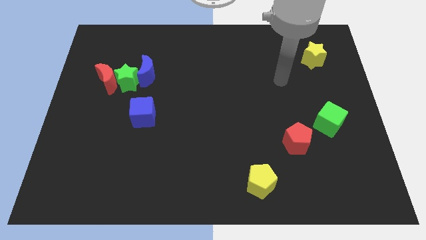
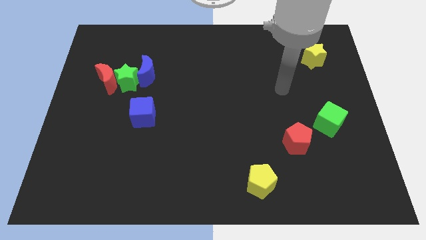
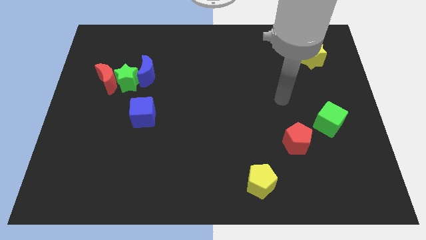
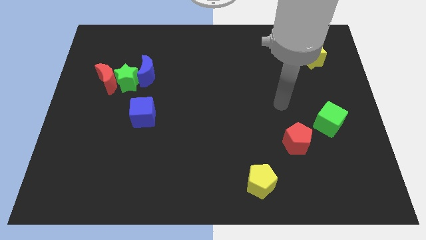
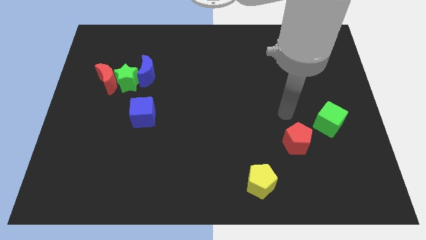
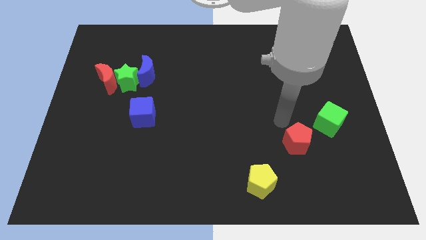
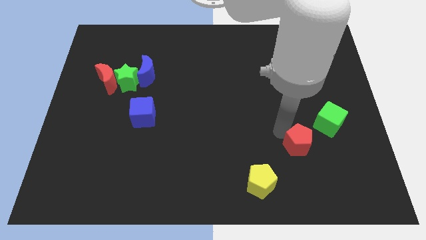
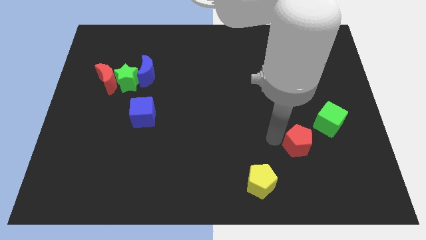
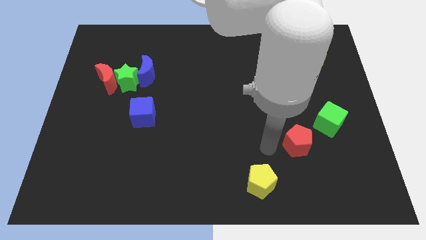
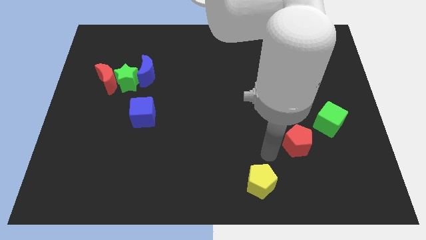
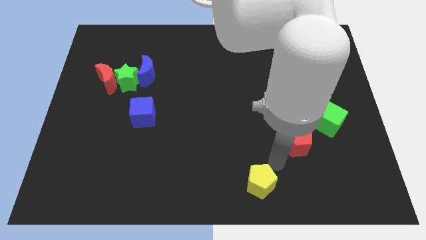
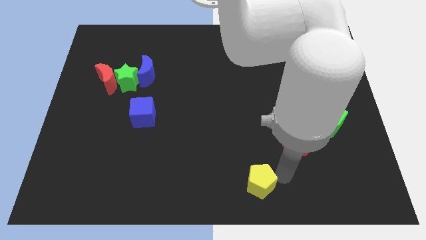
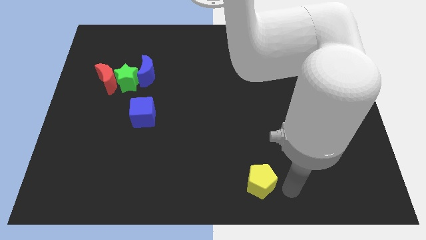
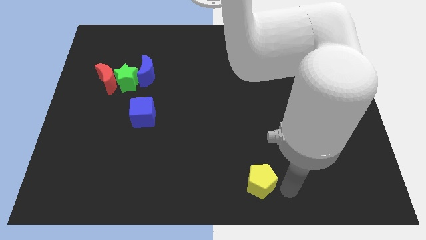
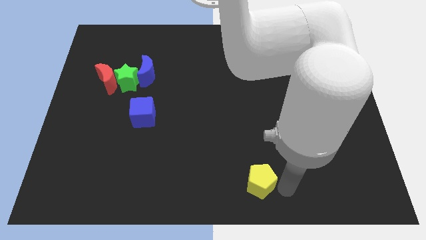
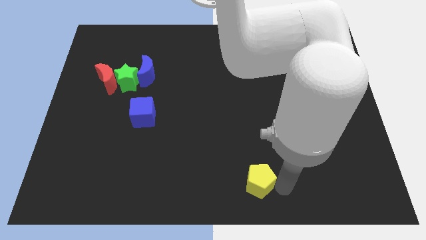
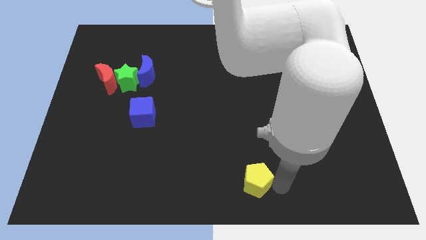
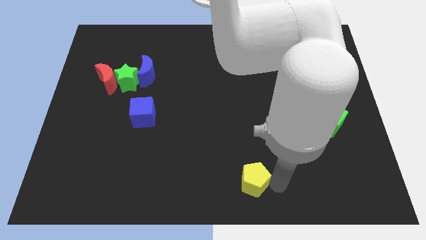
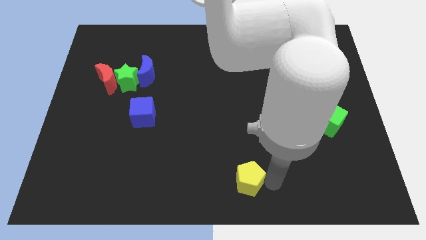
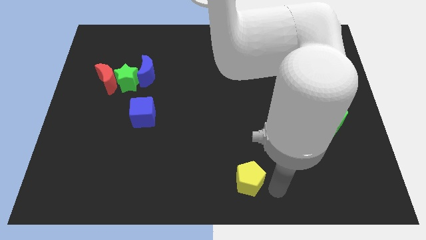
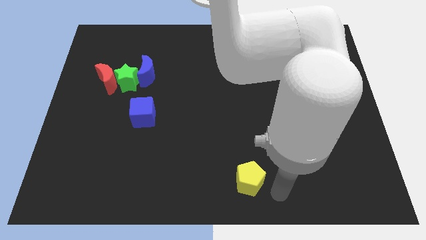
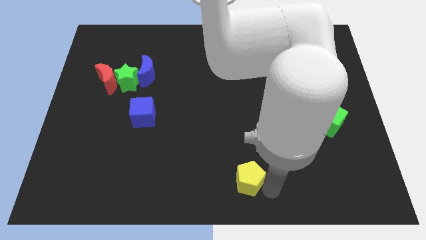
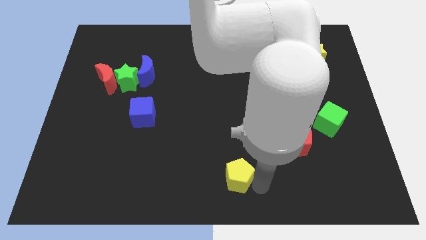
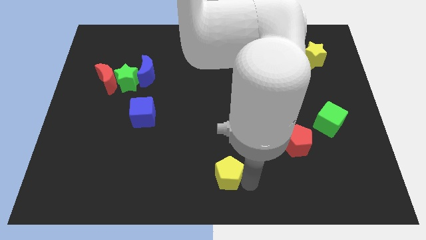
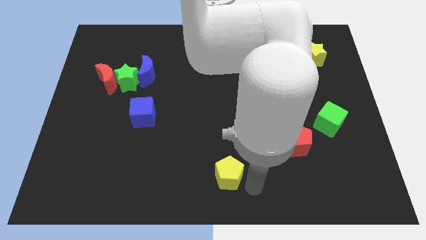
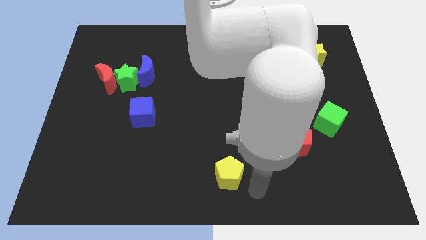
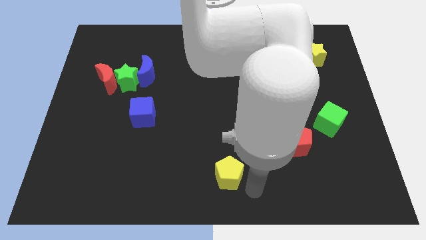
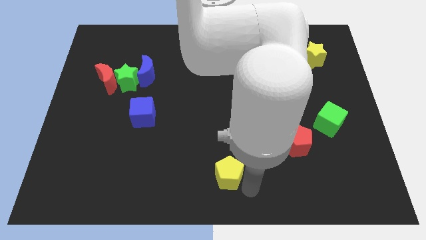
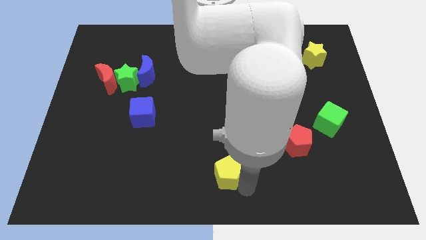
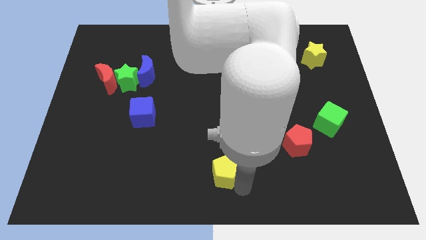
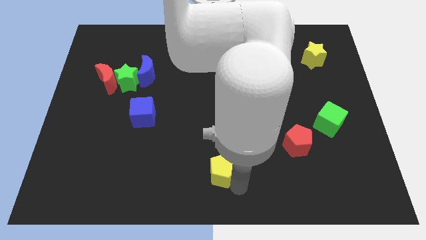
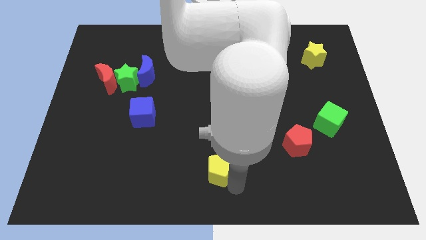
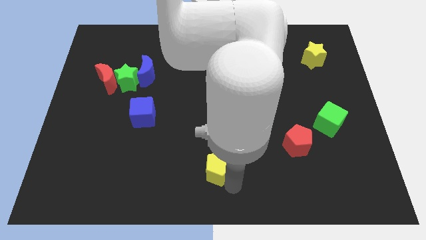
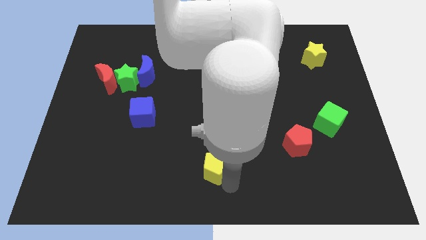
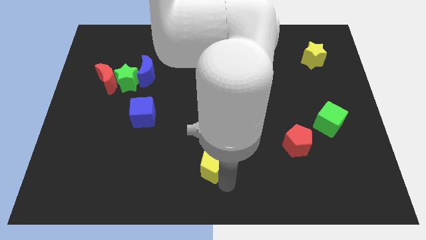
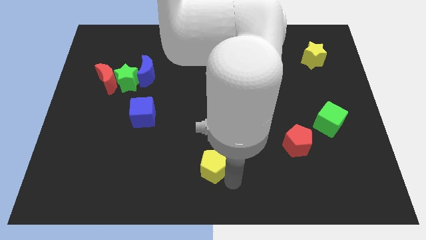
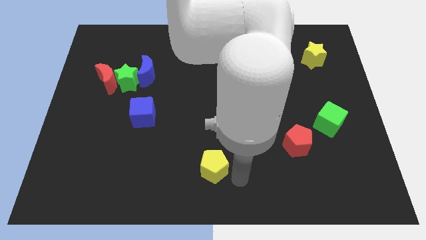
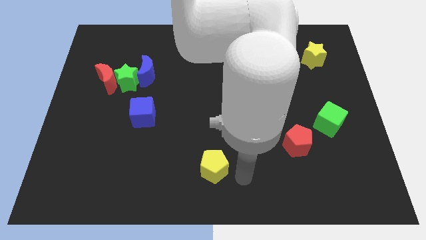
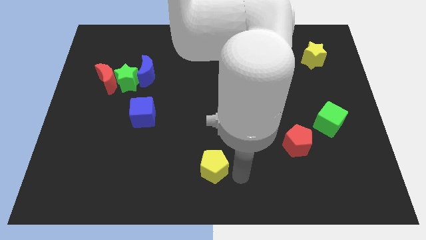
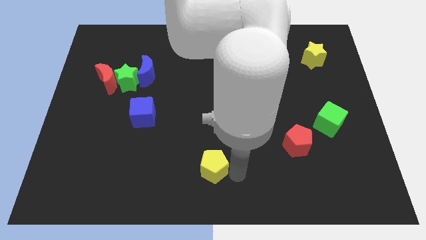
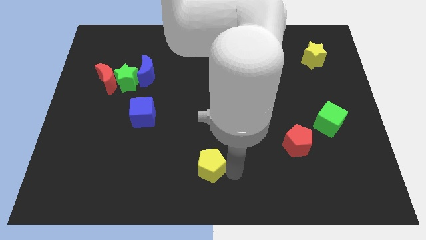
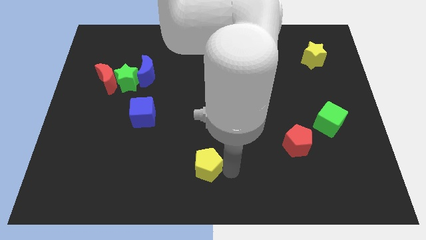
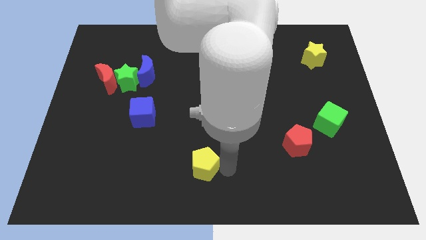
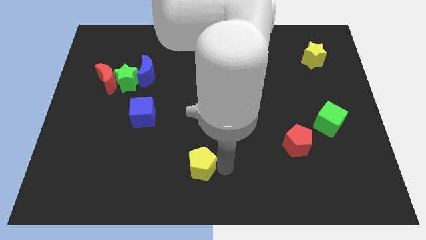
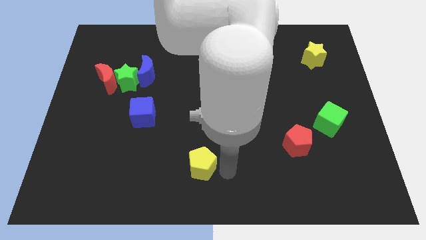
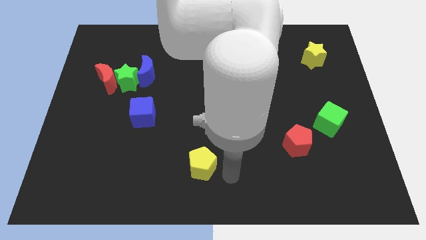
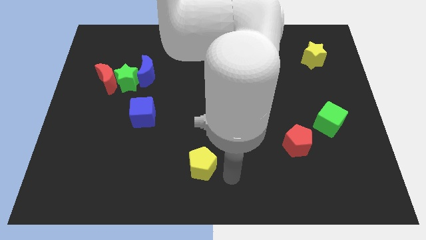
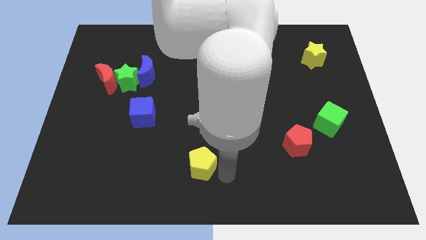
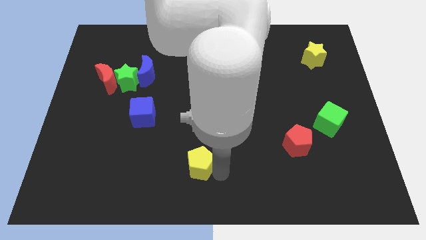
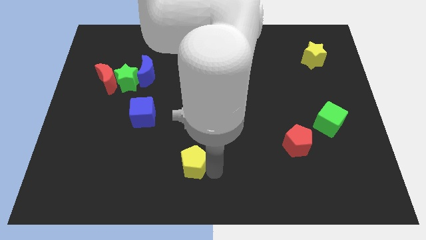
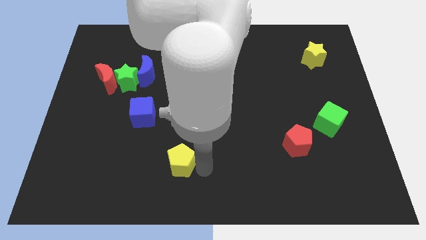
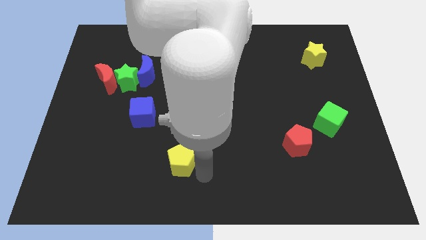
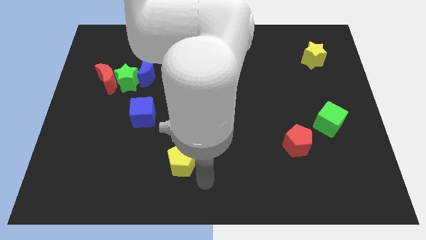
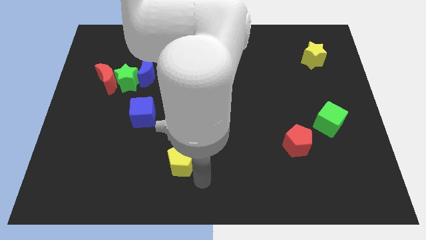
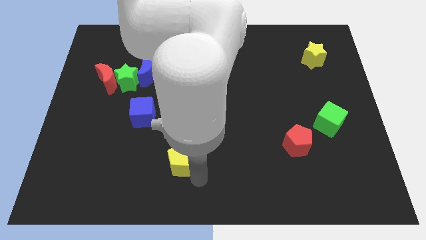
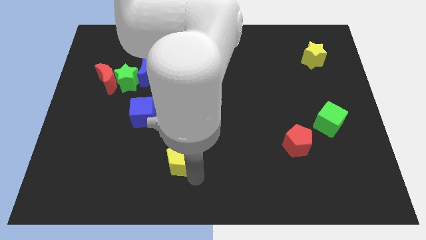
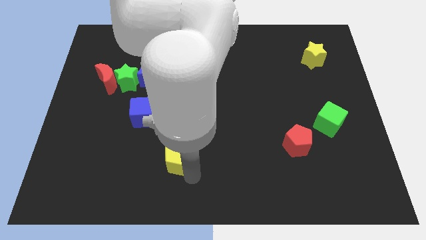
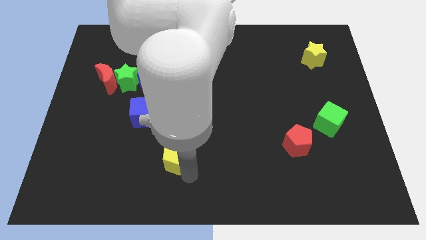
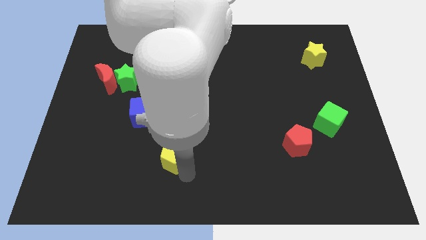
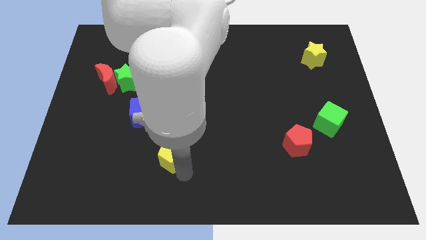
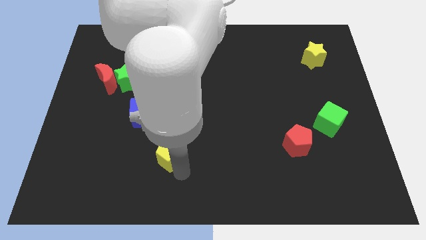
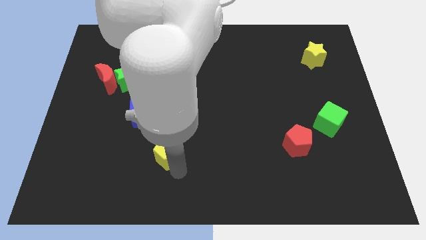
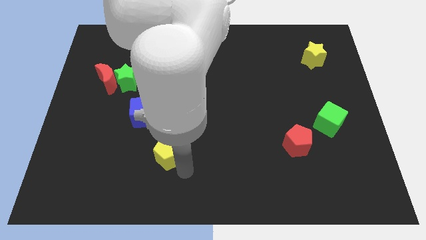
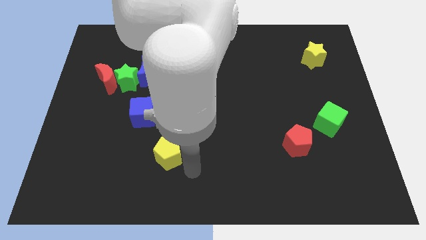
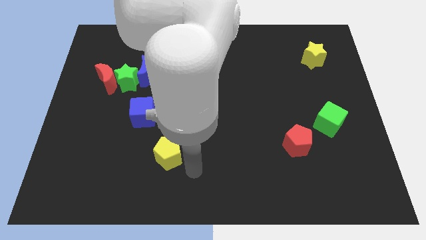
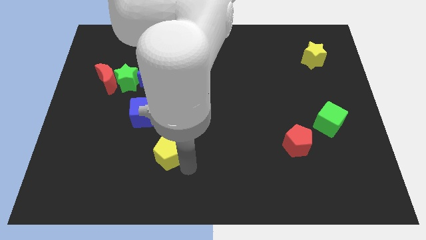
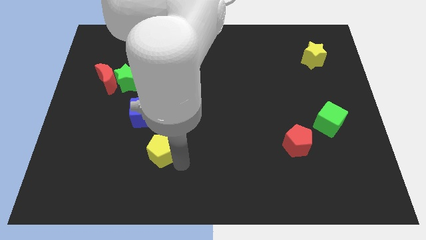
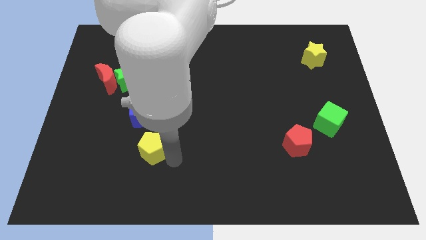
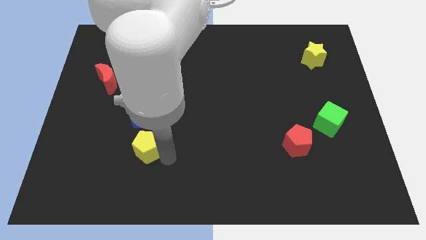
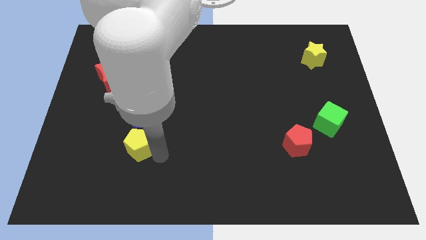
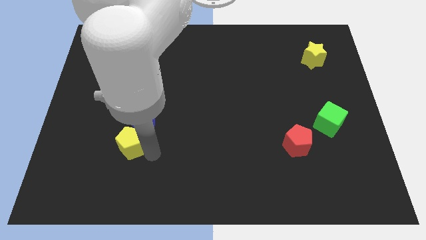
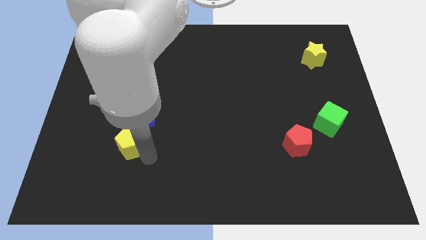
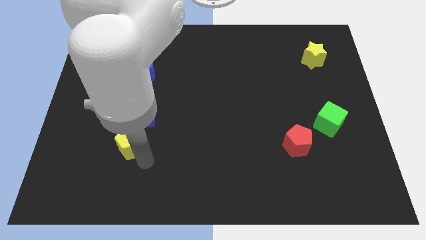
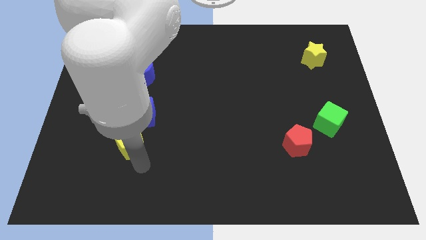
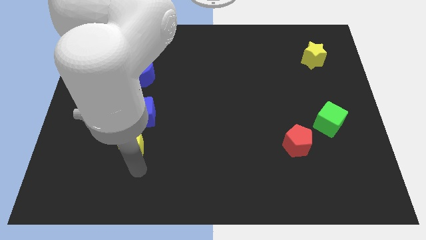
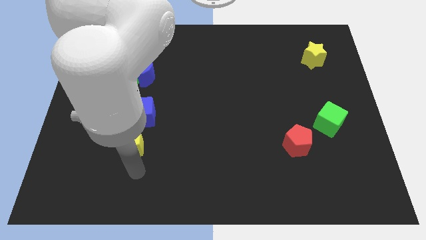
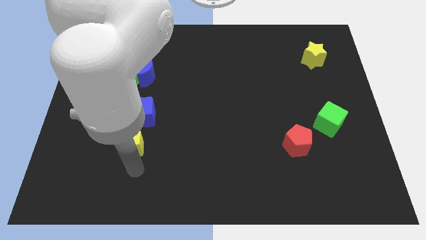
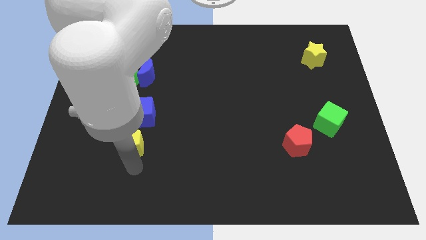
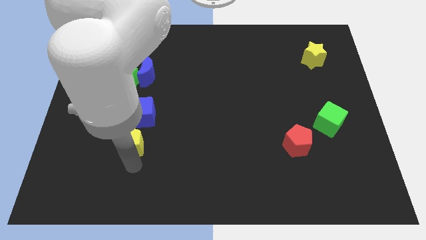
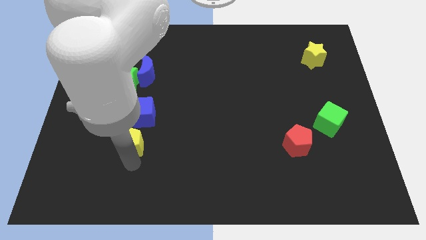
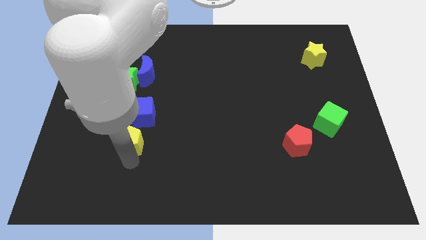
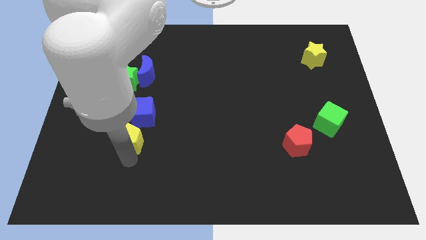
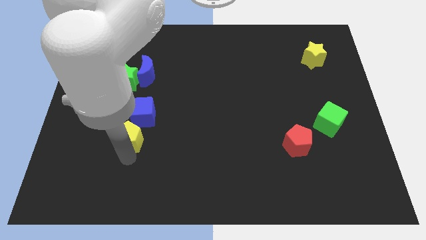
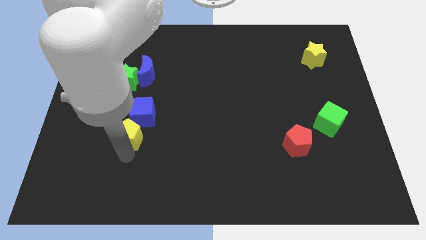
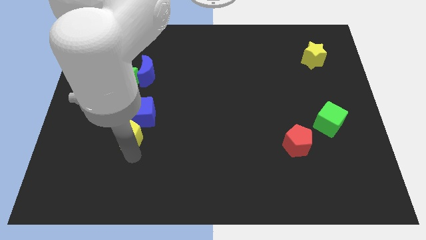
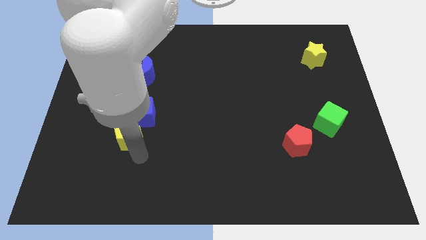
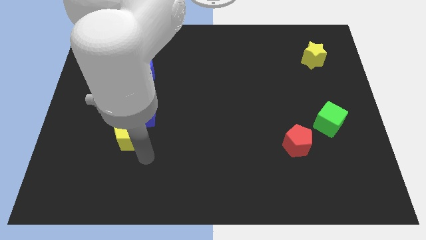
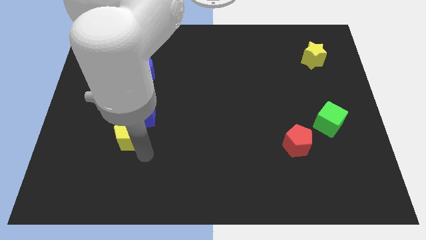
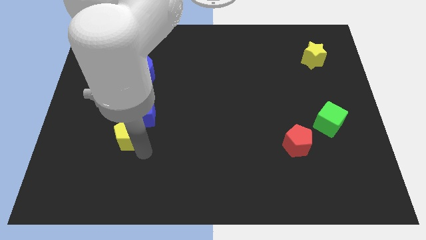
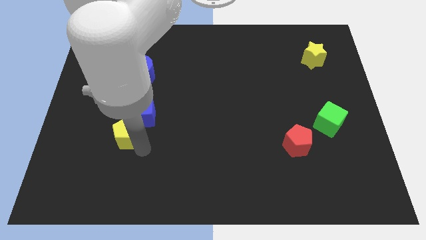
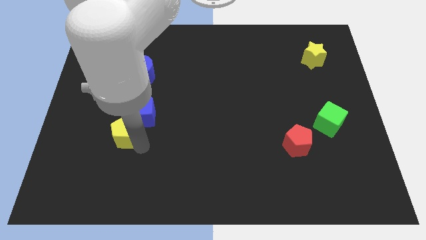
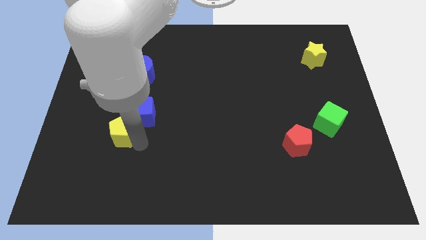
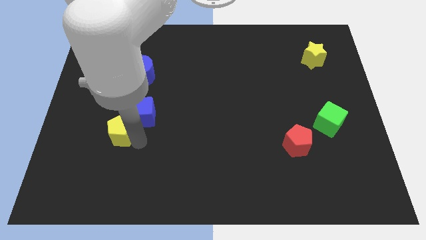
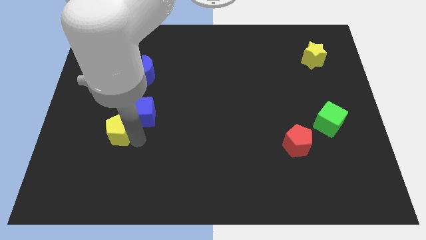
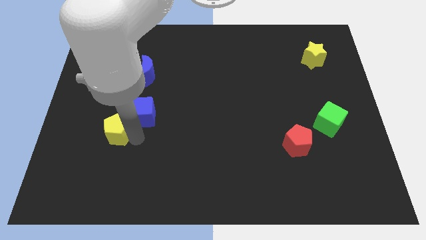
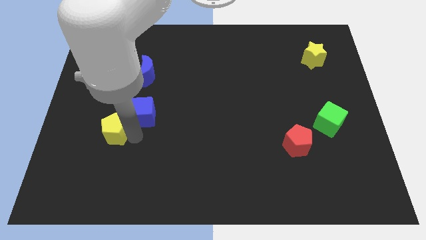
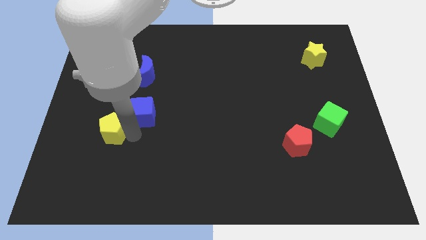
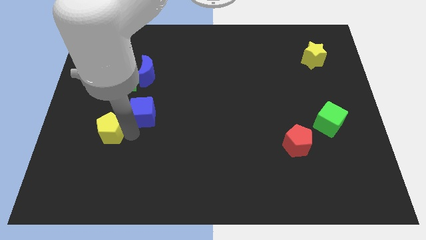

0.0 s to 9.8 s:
put the yellow pentagon to the bottom of the red moon
